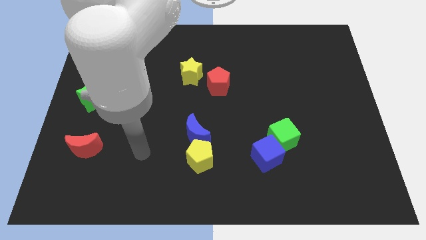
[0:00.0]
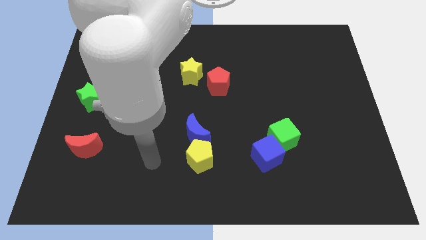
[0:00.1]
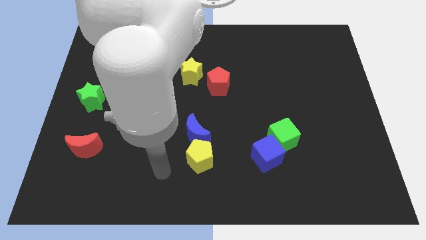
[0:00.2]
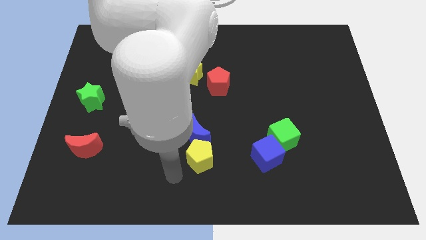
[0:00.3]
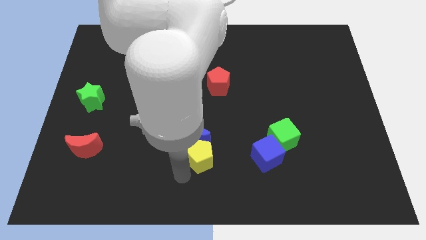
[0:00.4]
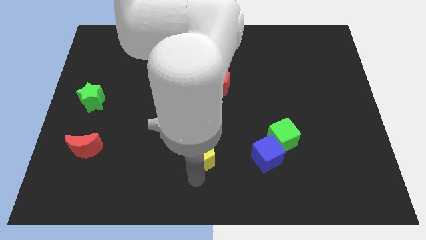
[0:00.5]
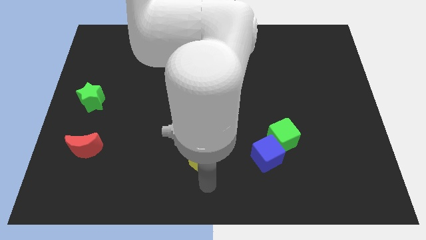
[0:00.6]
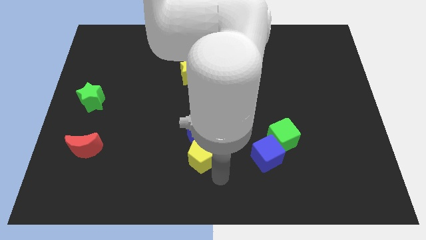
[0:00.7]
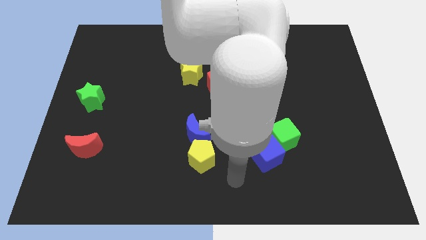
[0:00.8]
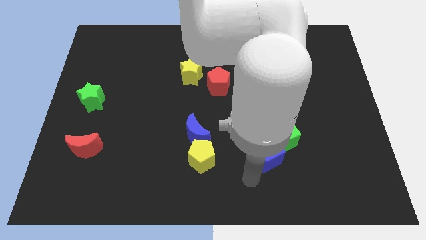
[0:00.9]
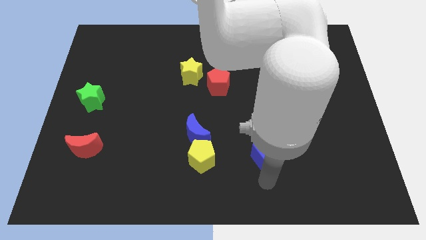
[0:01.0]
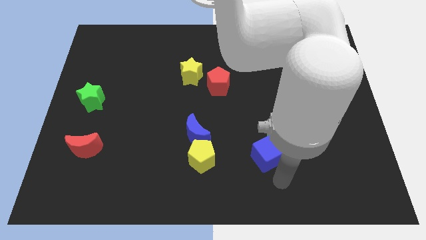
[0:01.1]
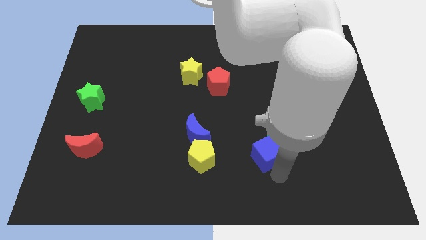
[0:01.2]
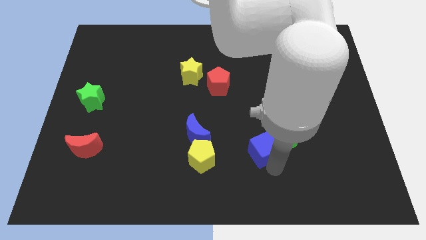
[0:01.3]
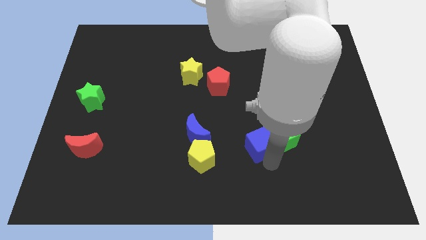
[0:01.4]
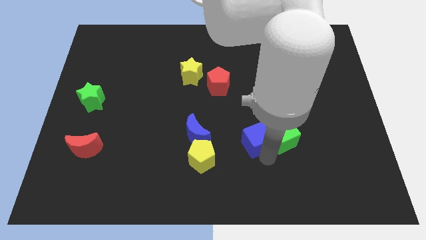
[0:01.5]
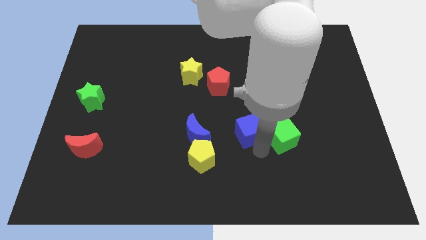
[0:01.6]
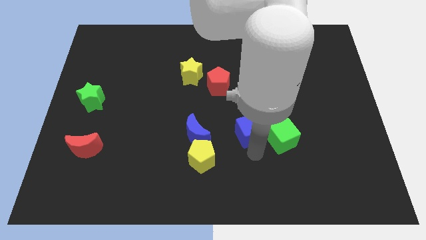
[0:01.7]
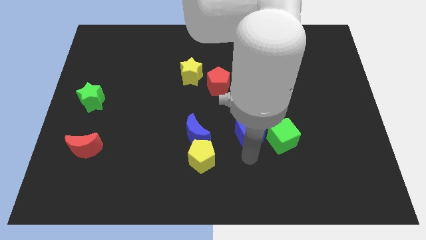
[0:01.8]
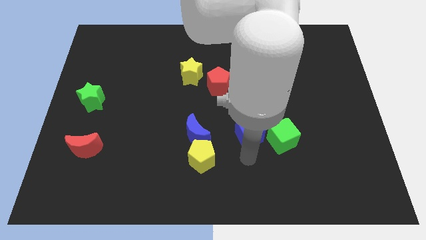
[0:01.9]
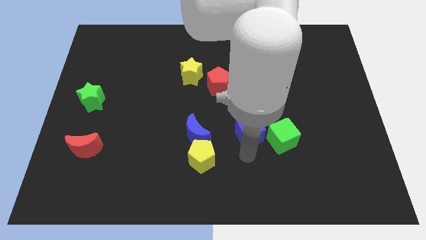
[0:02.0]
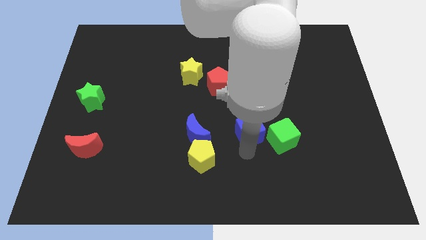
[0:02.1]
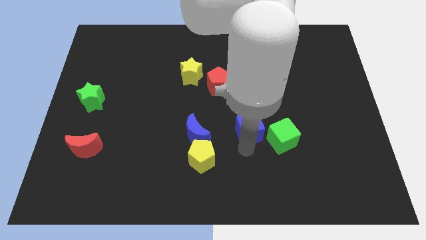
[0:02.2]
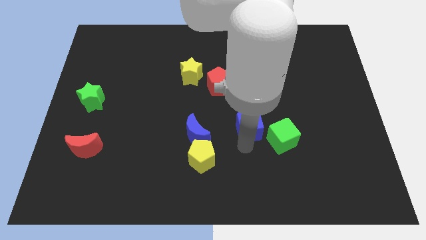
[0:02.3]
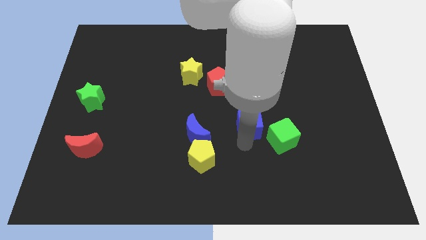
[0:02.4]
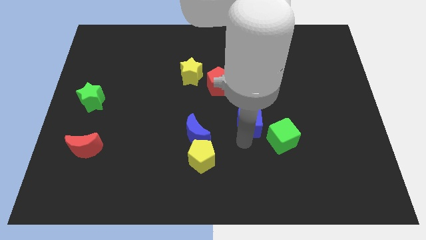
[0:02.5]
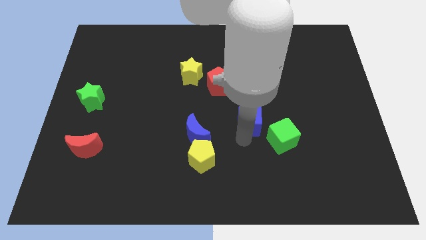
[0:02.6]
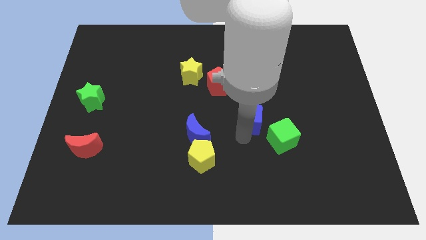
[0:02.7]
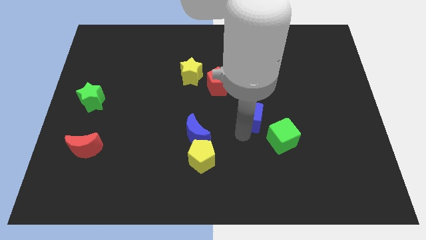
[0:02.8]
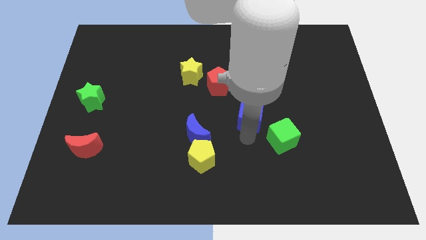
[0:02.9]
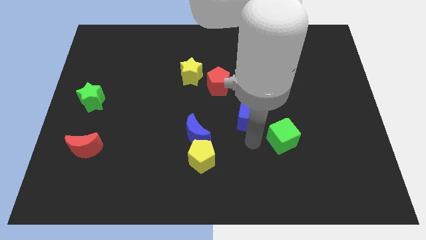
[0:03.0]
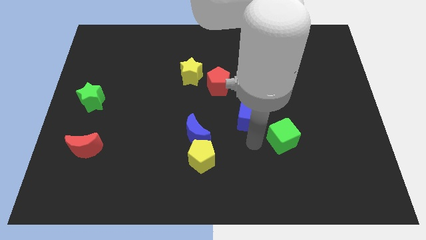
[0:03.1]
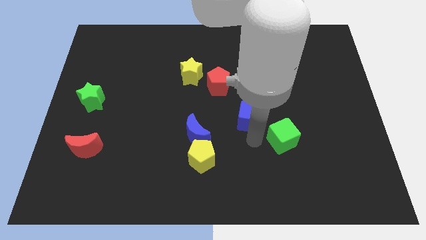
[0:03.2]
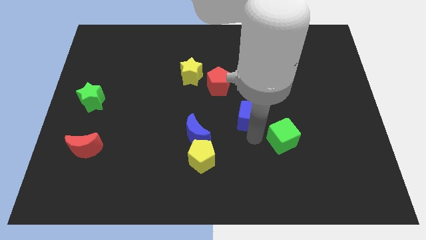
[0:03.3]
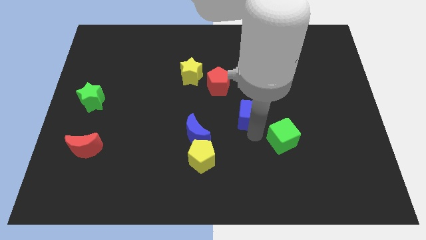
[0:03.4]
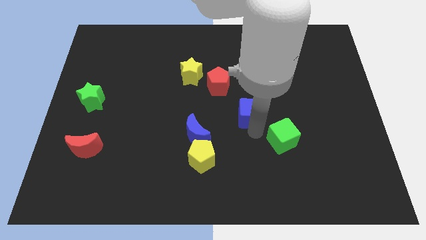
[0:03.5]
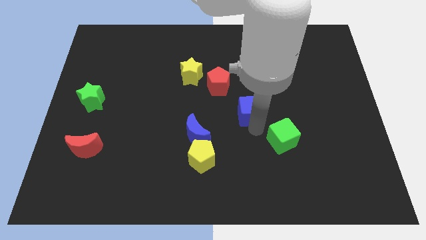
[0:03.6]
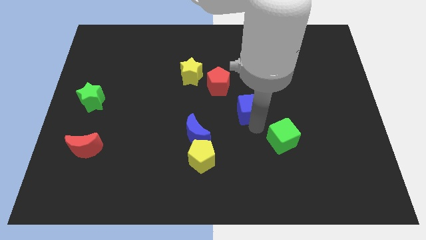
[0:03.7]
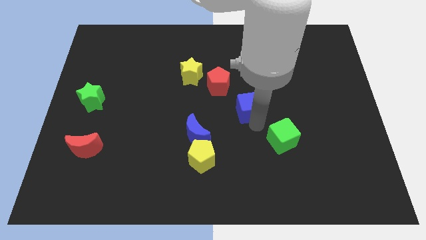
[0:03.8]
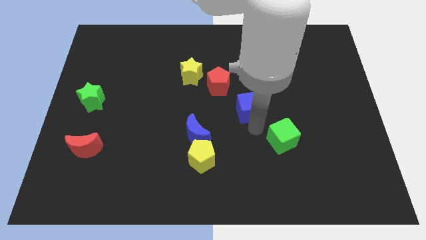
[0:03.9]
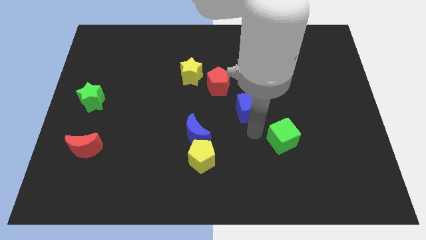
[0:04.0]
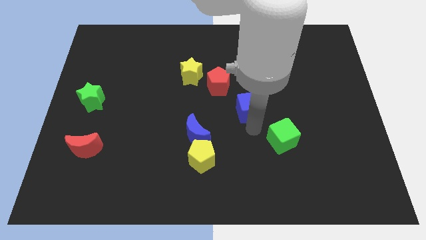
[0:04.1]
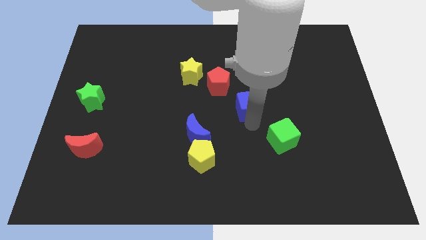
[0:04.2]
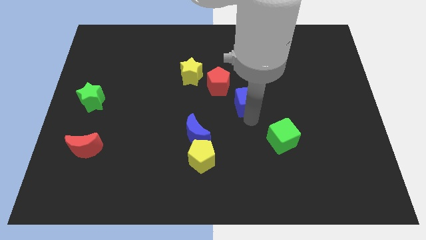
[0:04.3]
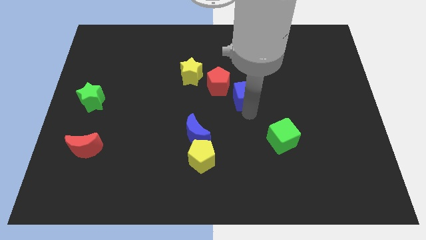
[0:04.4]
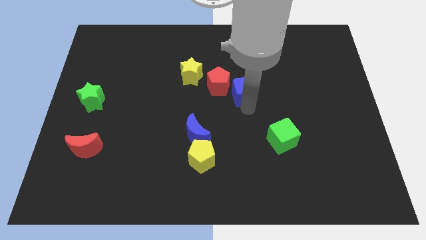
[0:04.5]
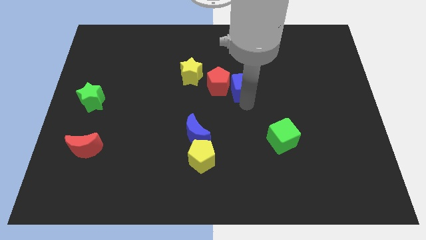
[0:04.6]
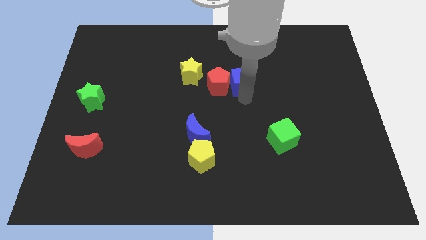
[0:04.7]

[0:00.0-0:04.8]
put the blue cube to the top right of the red pentagon

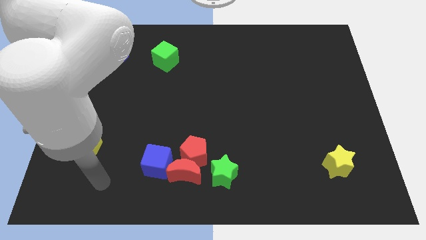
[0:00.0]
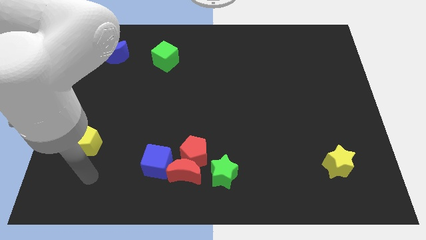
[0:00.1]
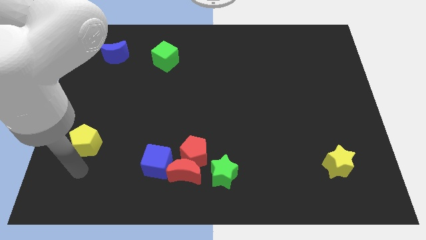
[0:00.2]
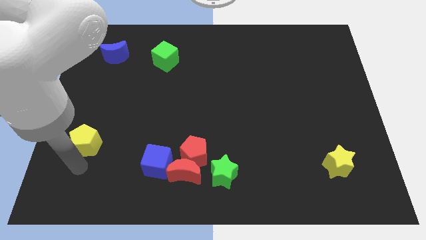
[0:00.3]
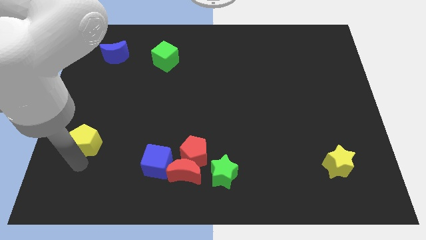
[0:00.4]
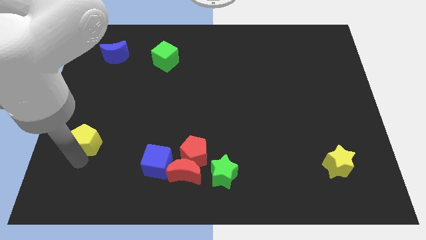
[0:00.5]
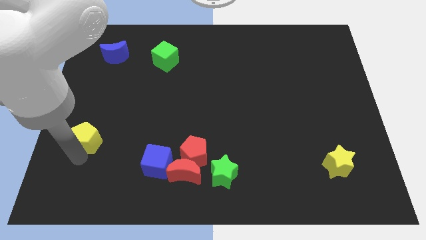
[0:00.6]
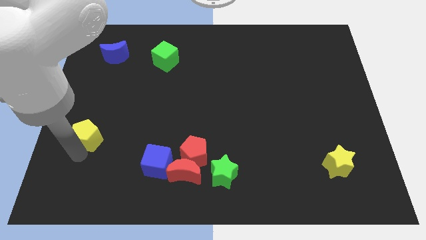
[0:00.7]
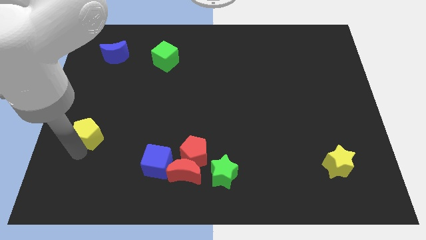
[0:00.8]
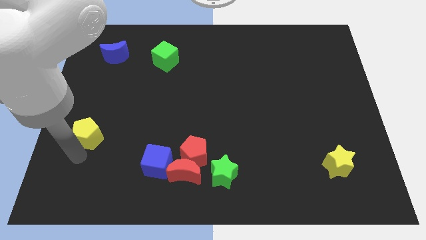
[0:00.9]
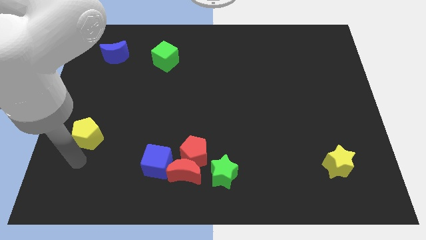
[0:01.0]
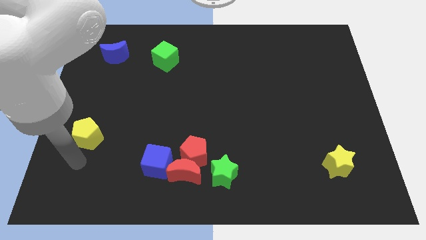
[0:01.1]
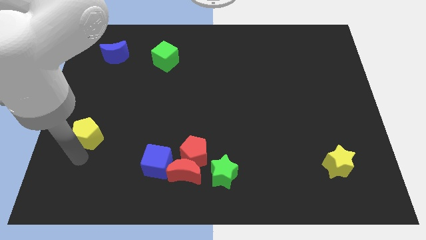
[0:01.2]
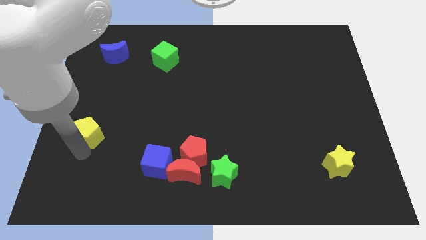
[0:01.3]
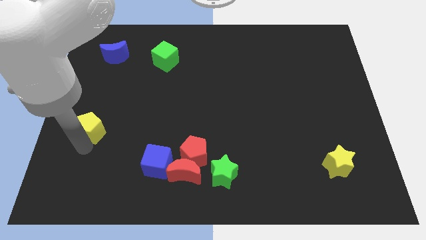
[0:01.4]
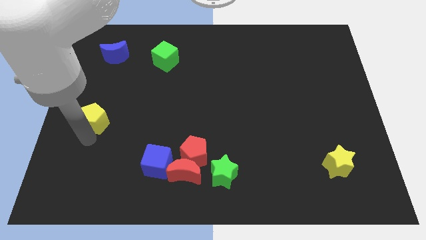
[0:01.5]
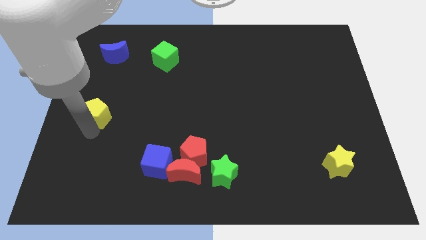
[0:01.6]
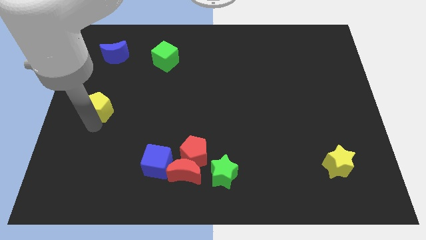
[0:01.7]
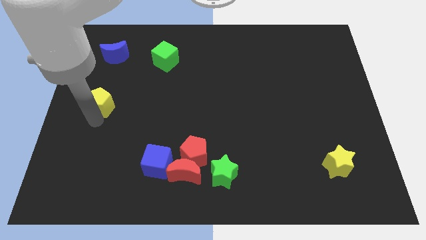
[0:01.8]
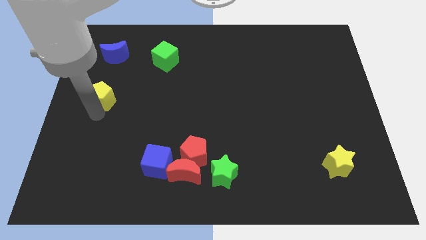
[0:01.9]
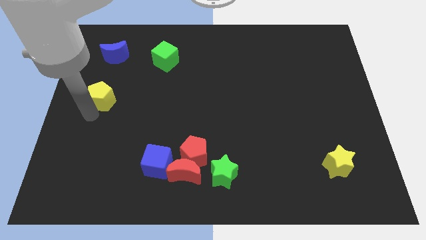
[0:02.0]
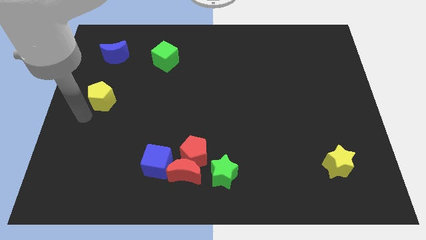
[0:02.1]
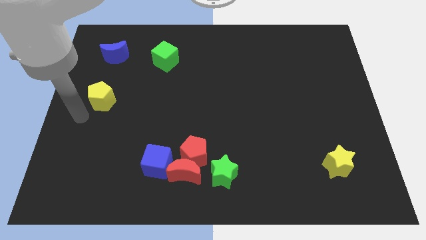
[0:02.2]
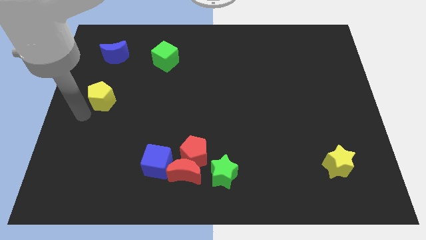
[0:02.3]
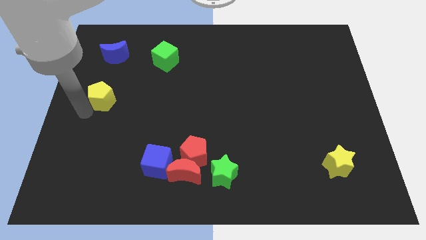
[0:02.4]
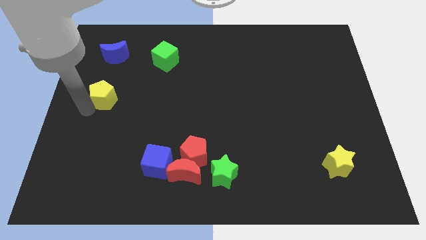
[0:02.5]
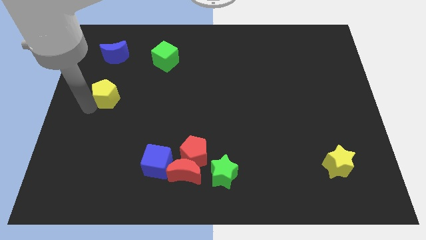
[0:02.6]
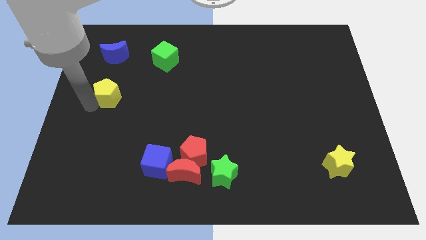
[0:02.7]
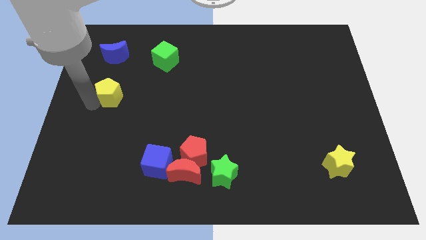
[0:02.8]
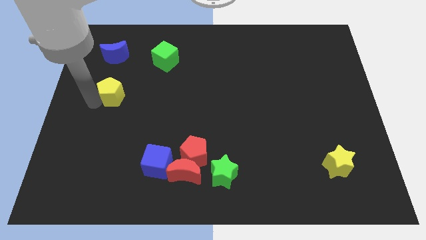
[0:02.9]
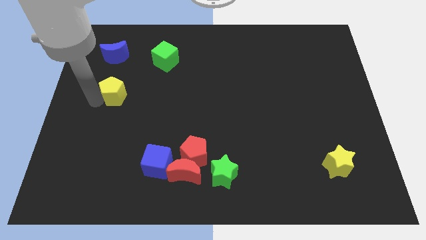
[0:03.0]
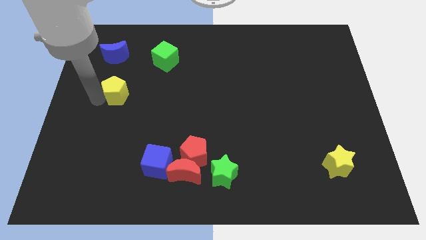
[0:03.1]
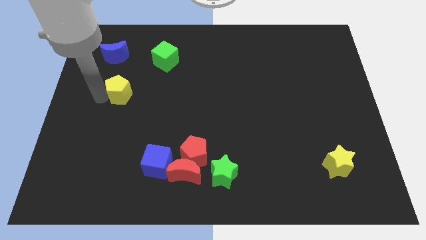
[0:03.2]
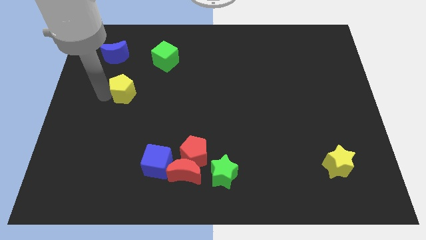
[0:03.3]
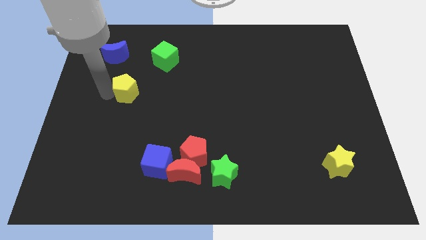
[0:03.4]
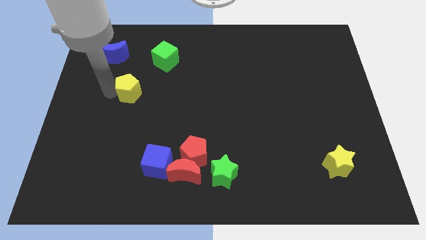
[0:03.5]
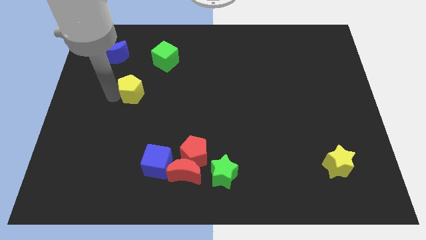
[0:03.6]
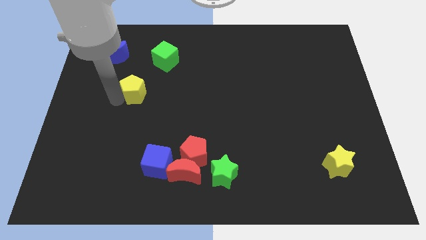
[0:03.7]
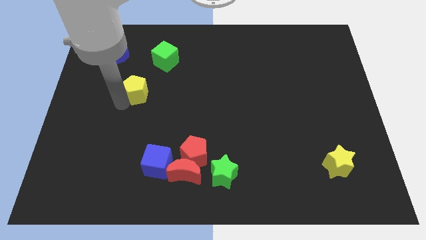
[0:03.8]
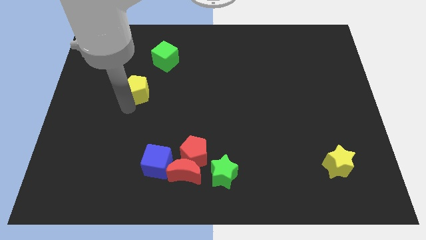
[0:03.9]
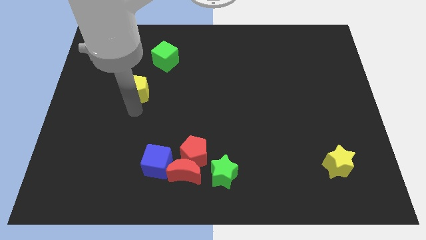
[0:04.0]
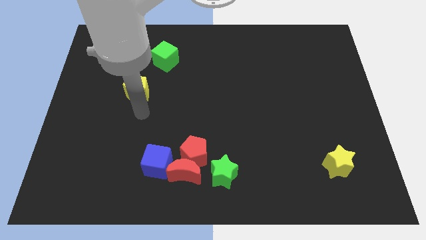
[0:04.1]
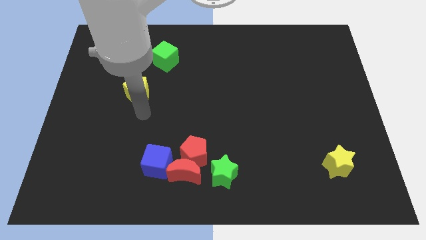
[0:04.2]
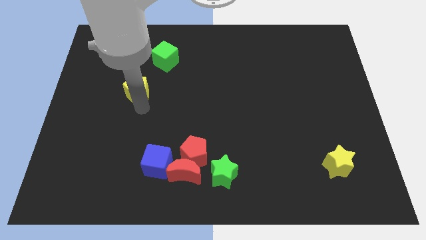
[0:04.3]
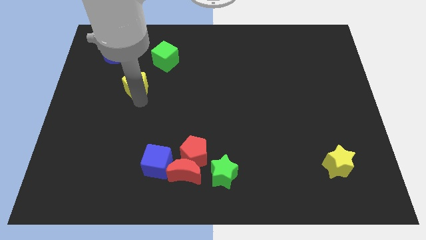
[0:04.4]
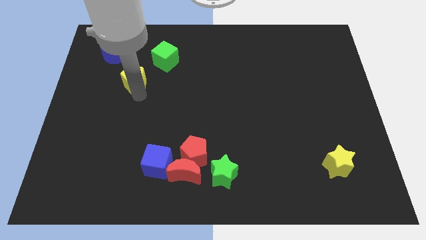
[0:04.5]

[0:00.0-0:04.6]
slide the yellow pentagon diagonally down and to the right of the blue moon
